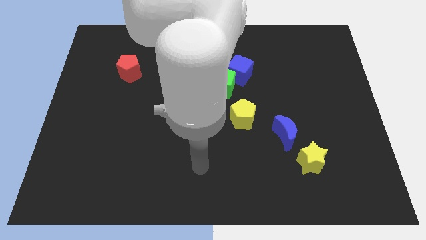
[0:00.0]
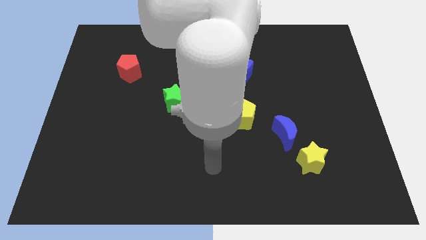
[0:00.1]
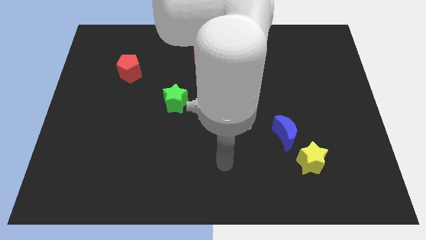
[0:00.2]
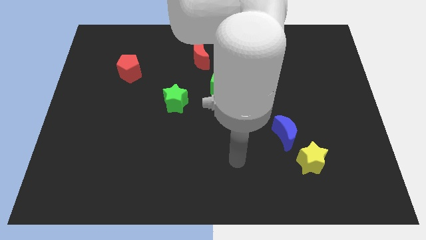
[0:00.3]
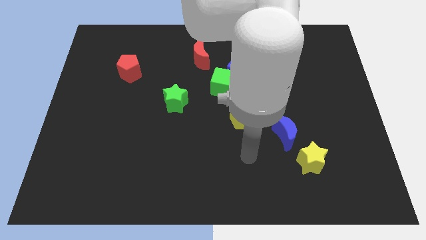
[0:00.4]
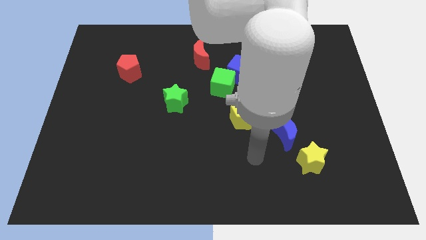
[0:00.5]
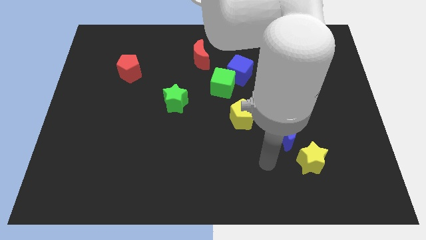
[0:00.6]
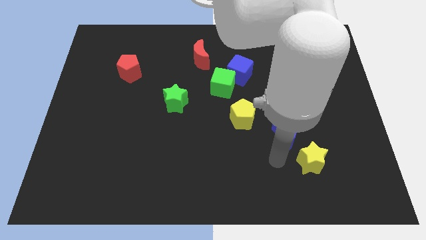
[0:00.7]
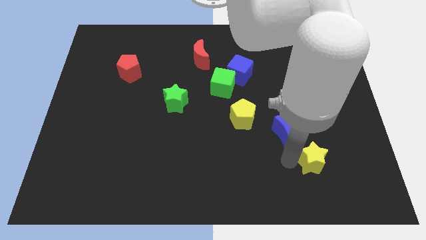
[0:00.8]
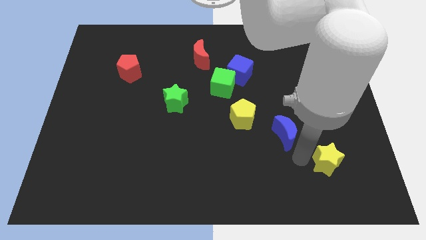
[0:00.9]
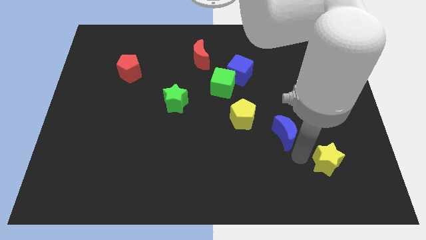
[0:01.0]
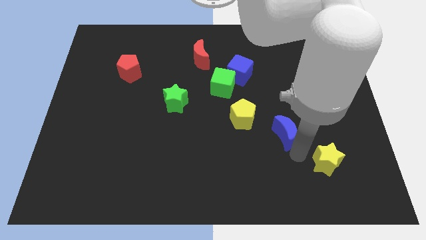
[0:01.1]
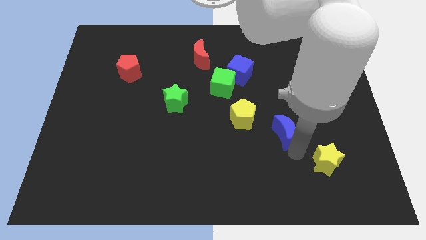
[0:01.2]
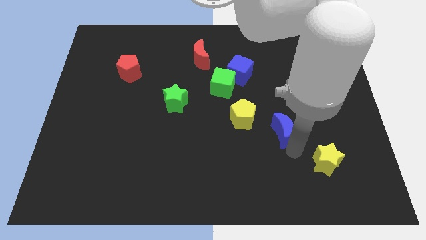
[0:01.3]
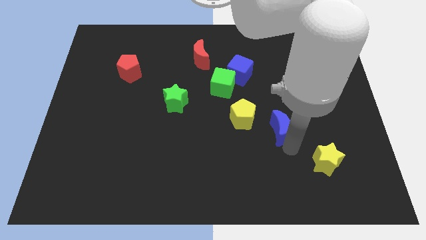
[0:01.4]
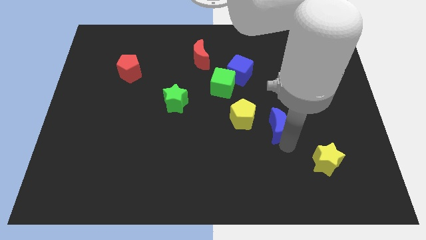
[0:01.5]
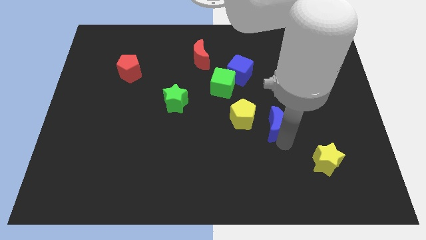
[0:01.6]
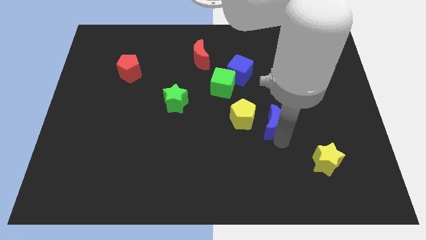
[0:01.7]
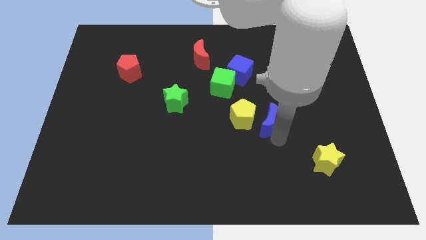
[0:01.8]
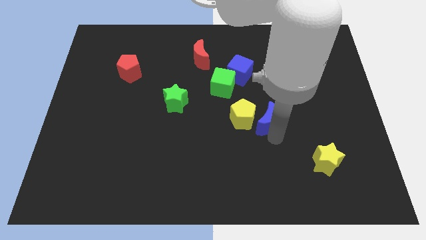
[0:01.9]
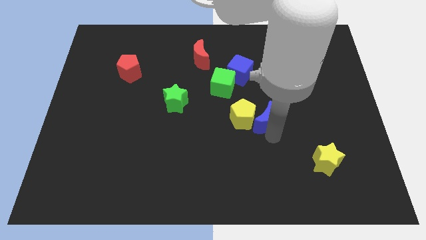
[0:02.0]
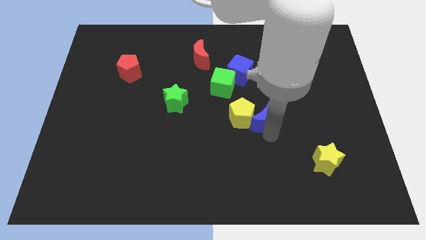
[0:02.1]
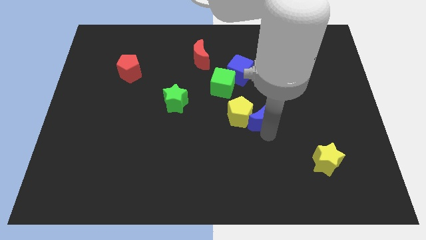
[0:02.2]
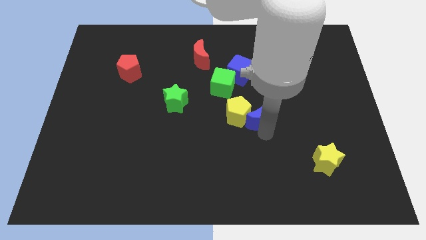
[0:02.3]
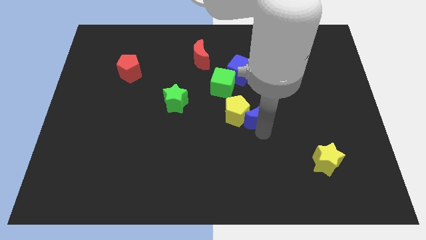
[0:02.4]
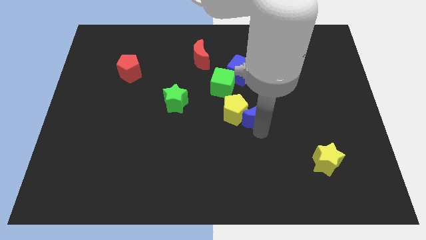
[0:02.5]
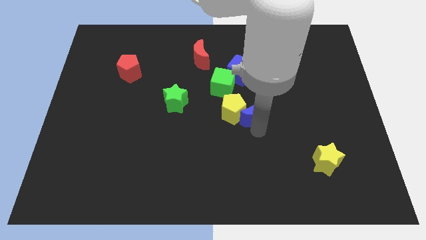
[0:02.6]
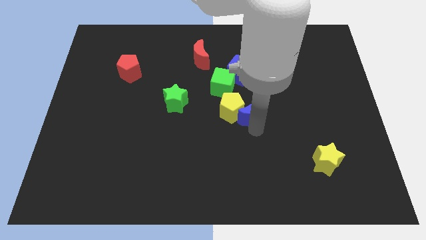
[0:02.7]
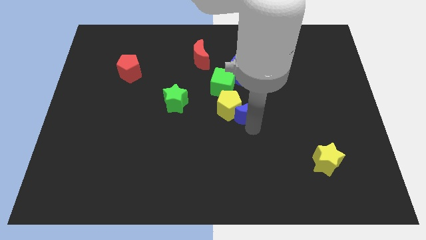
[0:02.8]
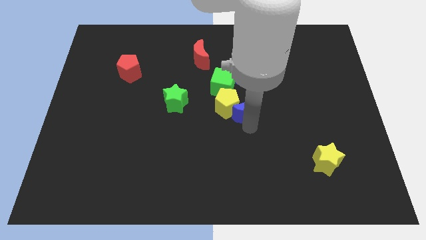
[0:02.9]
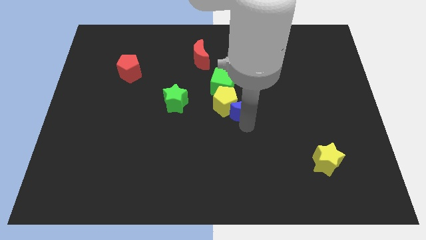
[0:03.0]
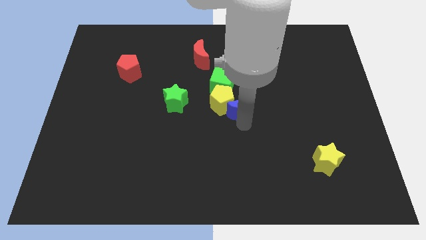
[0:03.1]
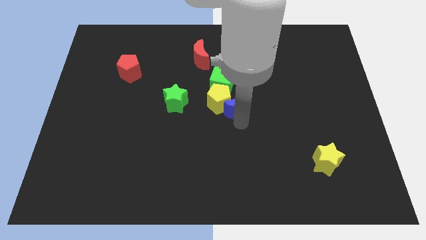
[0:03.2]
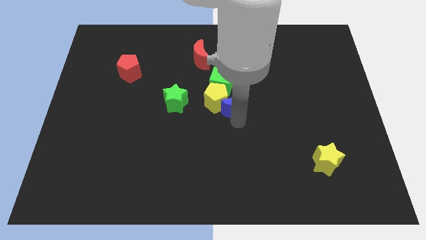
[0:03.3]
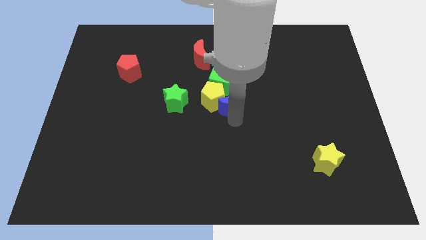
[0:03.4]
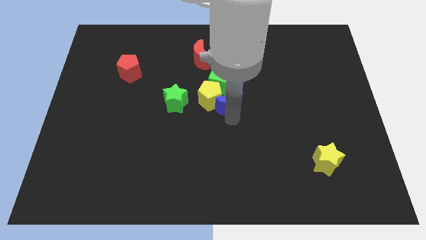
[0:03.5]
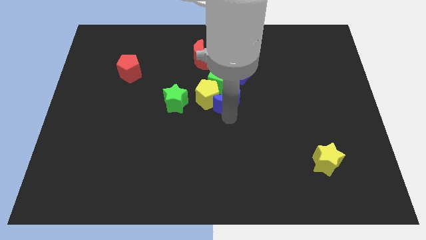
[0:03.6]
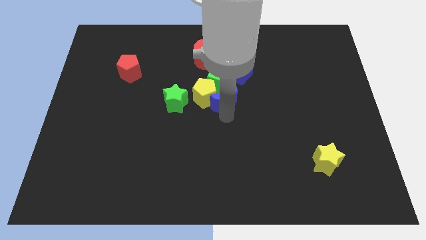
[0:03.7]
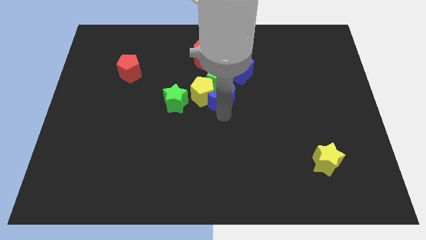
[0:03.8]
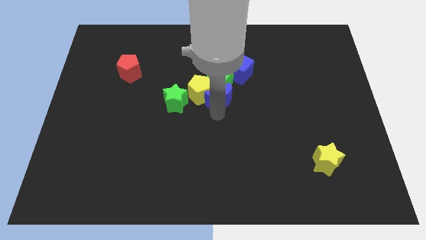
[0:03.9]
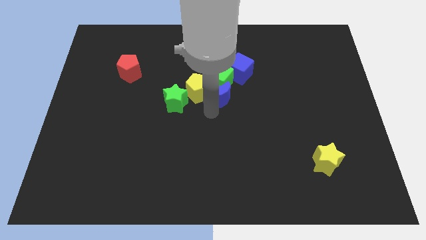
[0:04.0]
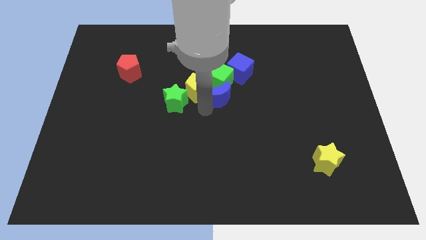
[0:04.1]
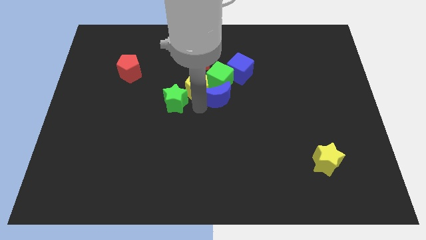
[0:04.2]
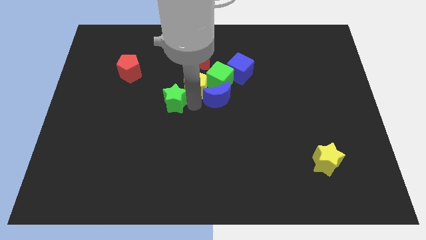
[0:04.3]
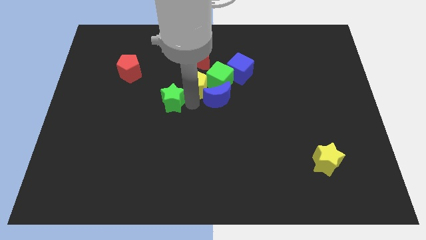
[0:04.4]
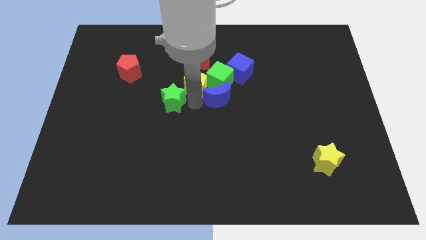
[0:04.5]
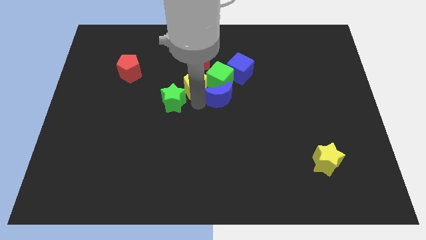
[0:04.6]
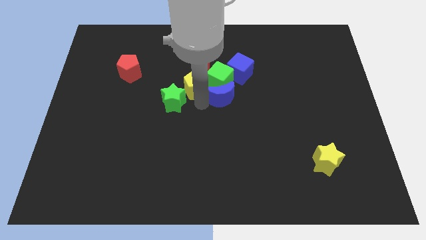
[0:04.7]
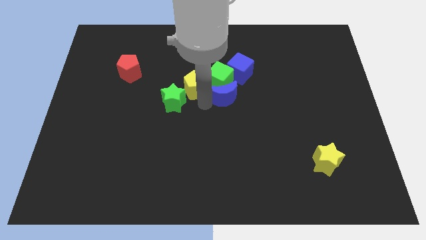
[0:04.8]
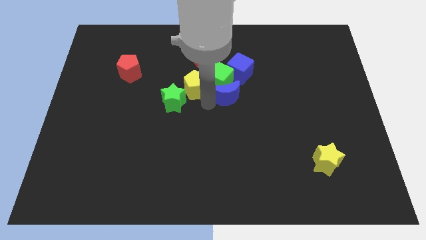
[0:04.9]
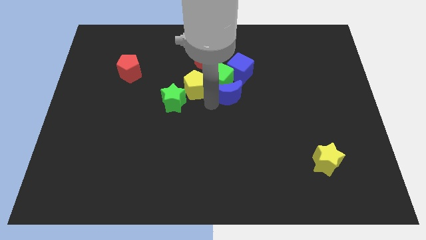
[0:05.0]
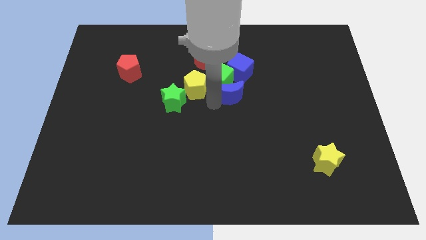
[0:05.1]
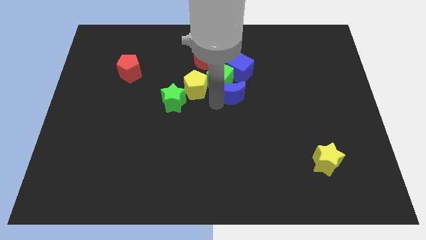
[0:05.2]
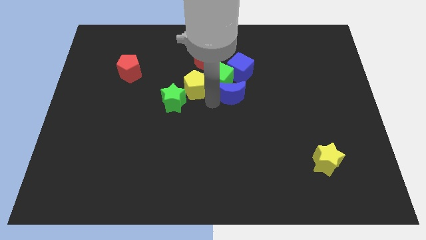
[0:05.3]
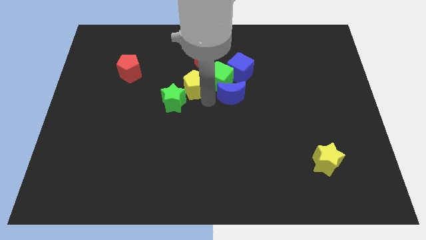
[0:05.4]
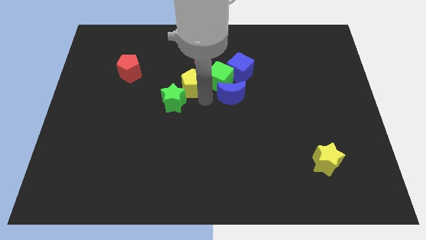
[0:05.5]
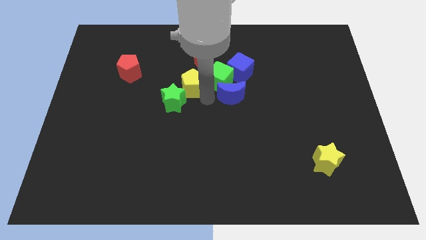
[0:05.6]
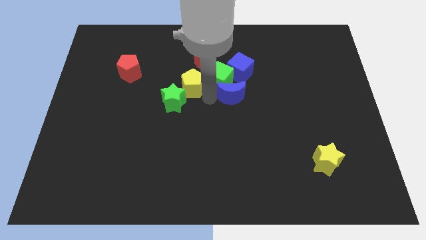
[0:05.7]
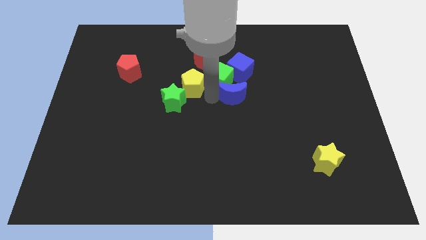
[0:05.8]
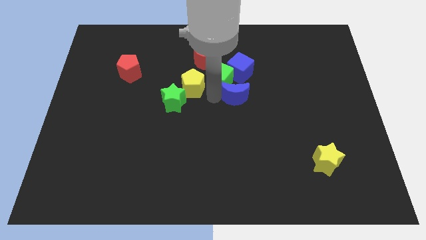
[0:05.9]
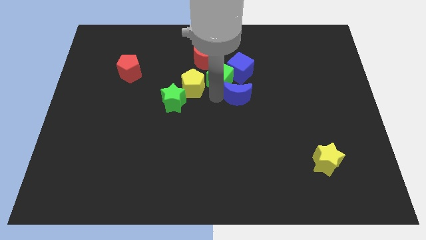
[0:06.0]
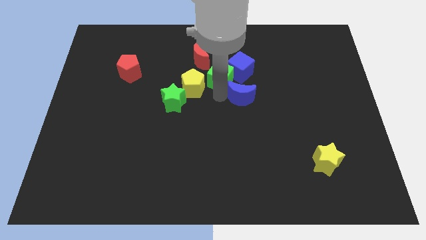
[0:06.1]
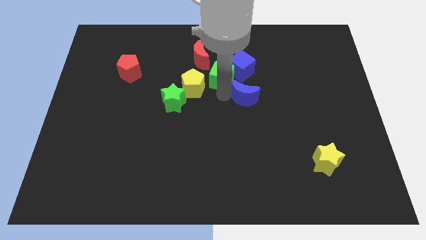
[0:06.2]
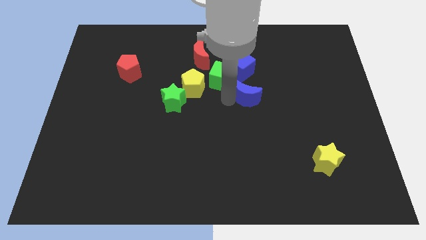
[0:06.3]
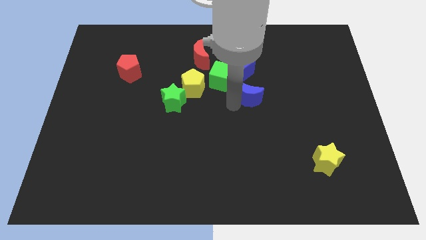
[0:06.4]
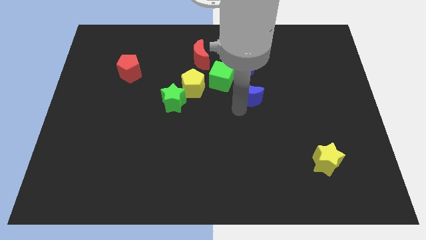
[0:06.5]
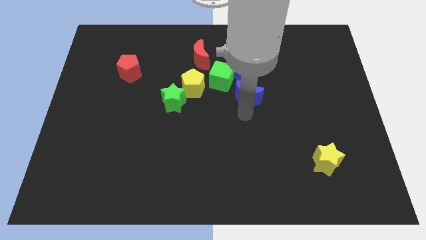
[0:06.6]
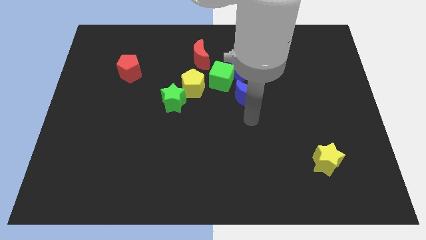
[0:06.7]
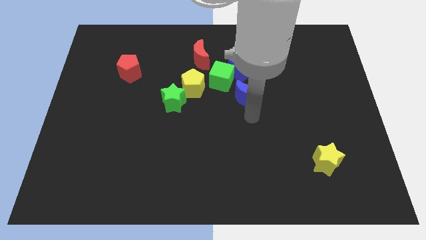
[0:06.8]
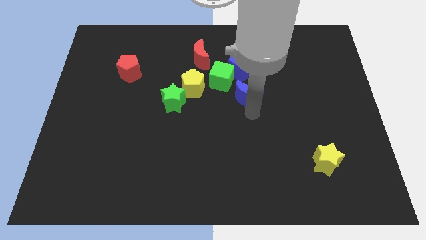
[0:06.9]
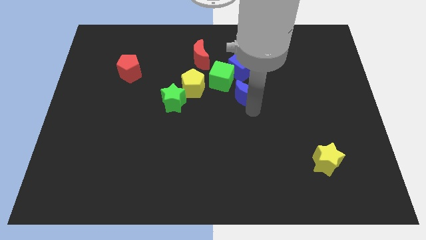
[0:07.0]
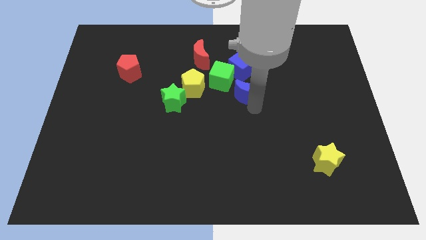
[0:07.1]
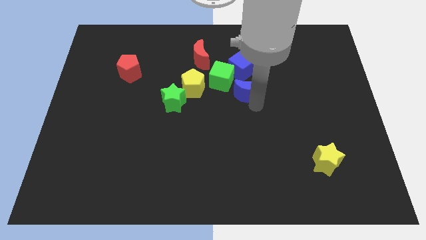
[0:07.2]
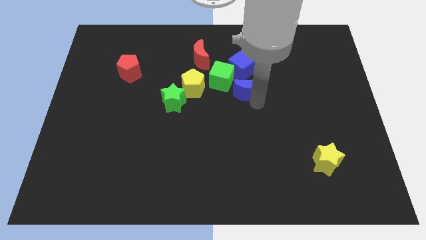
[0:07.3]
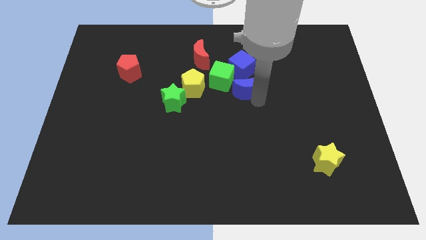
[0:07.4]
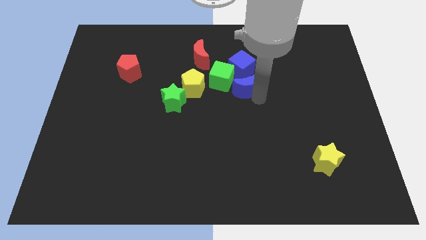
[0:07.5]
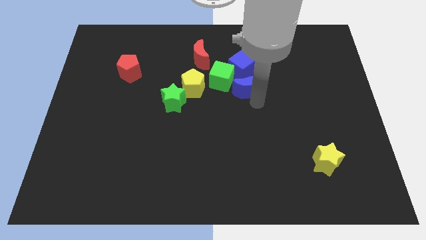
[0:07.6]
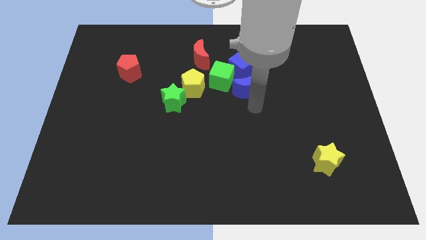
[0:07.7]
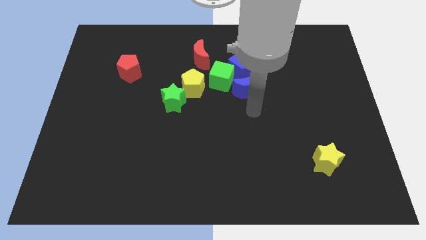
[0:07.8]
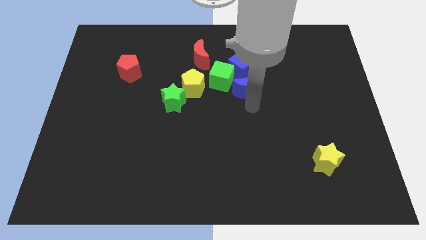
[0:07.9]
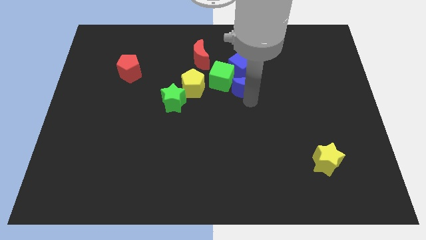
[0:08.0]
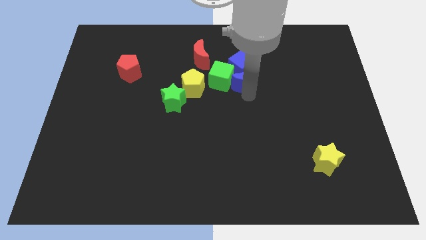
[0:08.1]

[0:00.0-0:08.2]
move the blue moon to the blue cube
